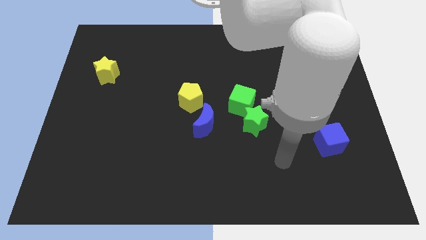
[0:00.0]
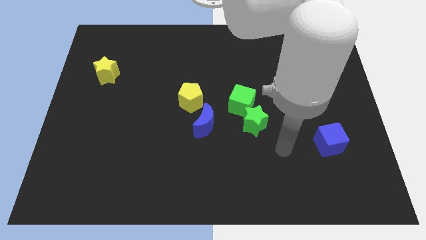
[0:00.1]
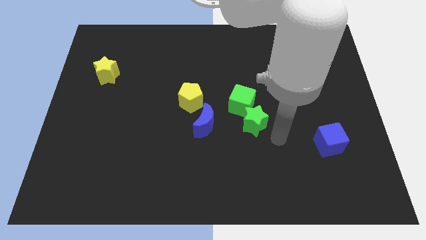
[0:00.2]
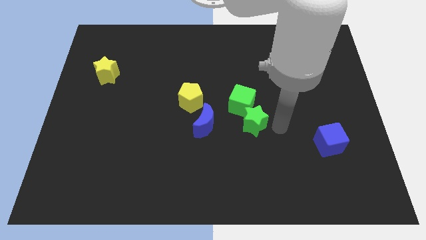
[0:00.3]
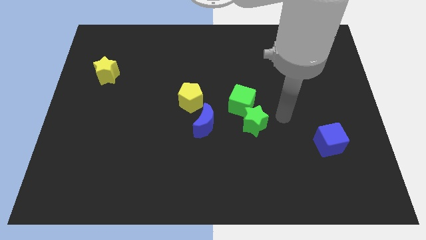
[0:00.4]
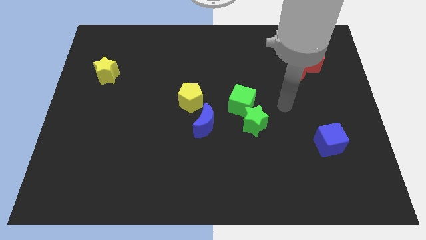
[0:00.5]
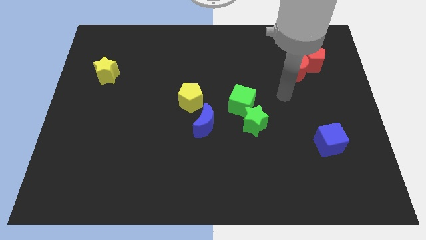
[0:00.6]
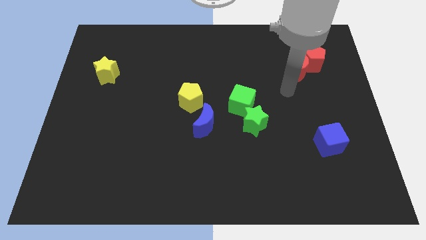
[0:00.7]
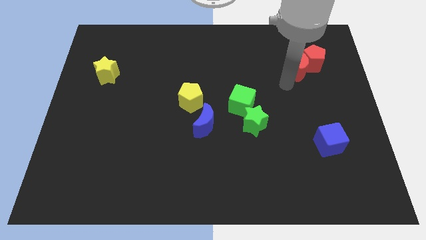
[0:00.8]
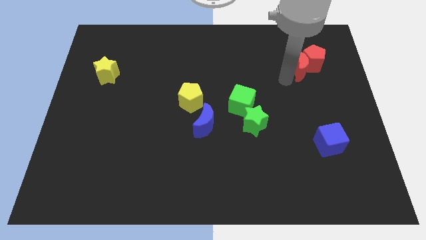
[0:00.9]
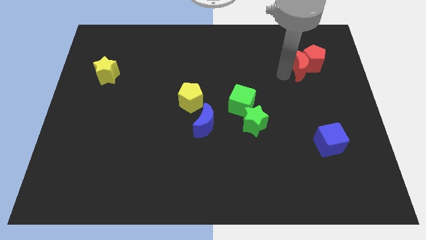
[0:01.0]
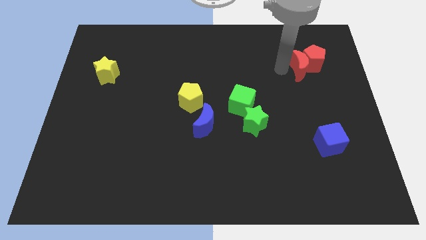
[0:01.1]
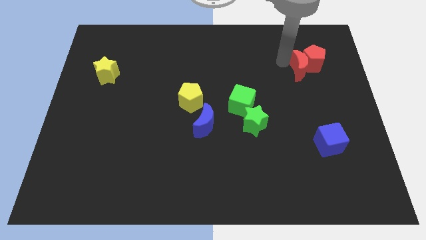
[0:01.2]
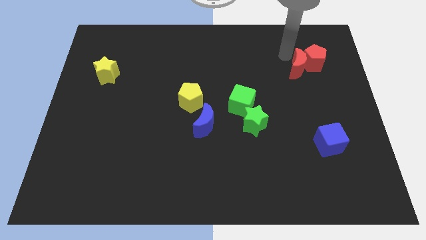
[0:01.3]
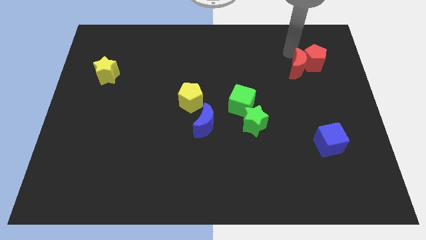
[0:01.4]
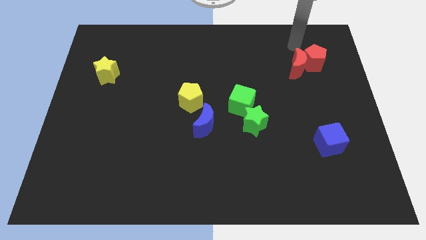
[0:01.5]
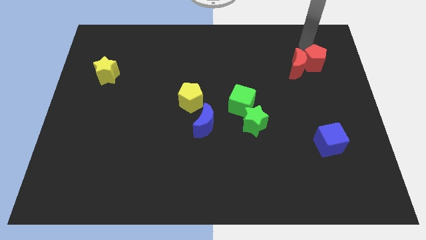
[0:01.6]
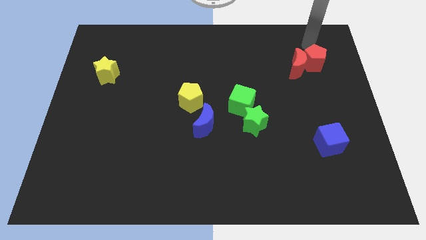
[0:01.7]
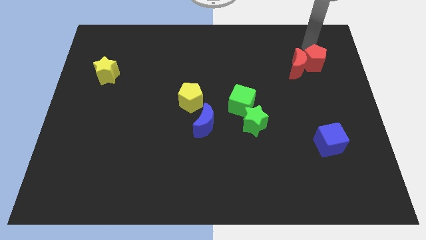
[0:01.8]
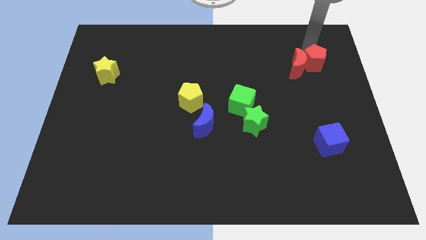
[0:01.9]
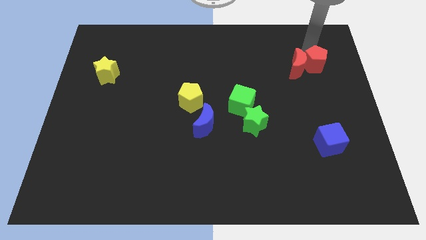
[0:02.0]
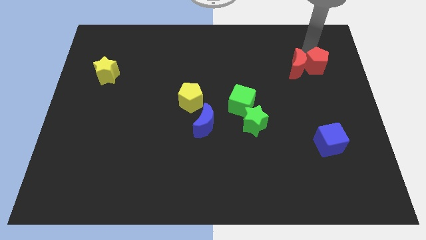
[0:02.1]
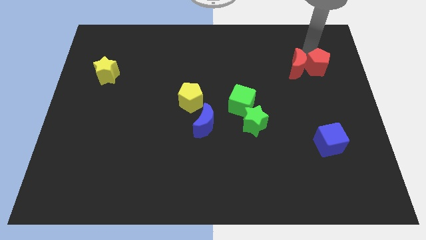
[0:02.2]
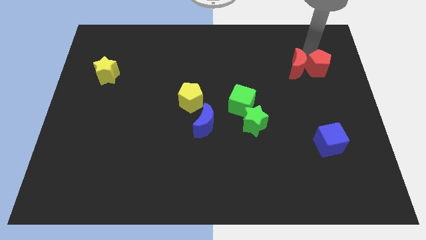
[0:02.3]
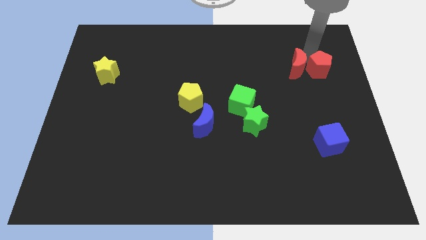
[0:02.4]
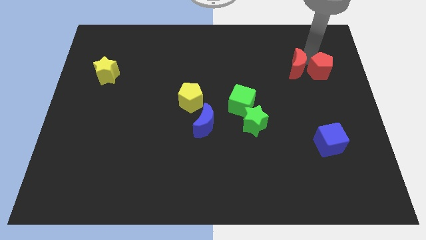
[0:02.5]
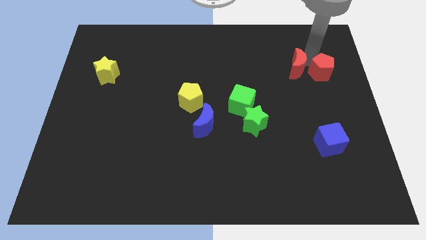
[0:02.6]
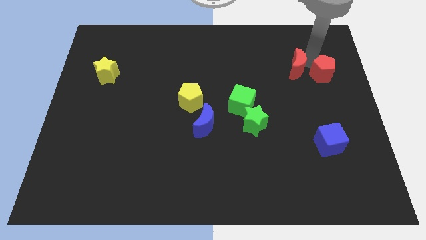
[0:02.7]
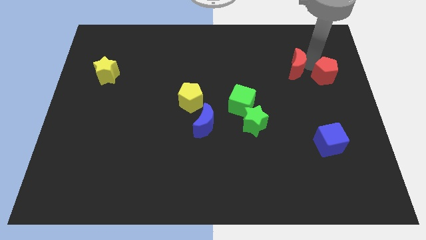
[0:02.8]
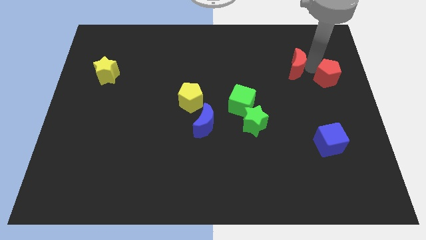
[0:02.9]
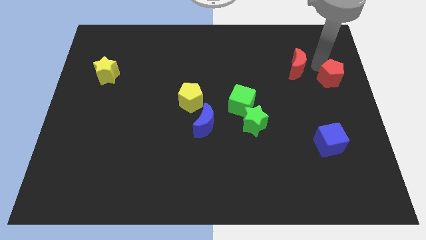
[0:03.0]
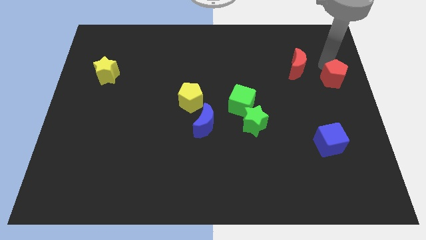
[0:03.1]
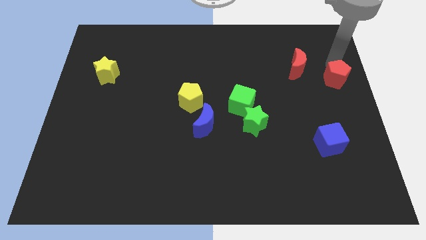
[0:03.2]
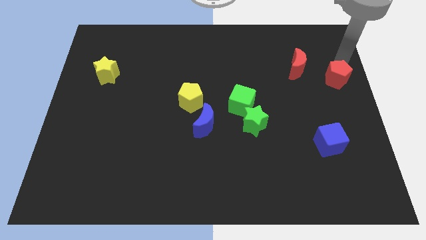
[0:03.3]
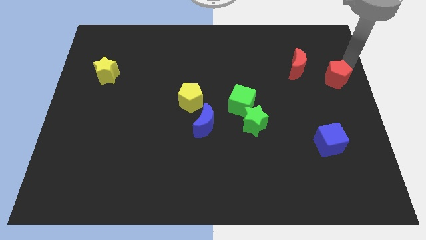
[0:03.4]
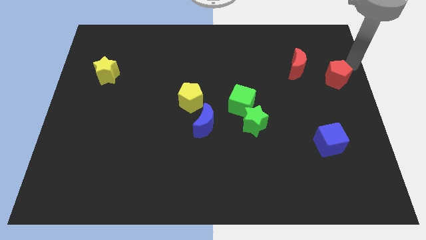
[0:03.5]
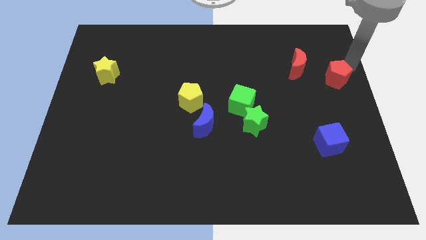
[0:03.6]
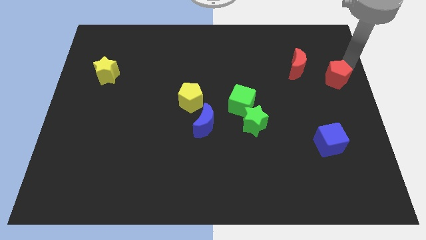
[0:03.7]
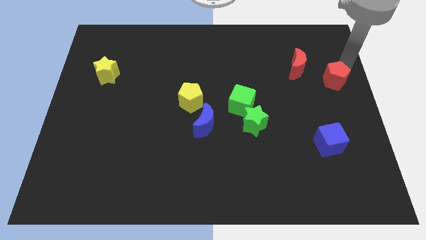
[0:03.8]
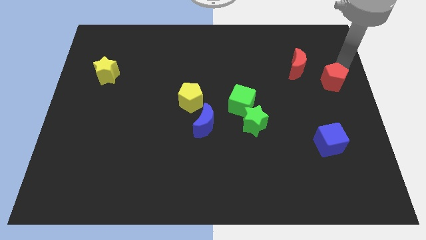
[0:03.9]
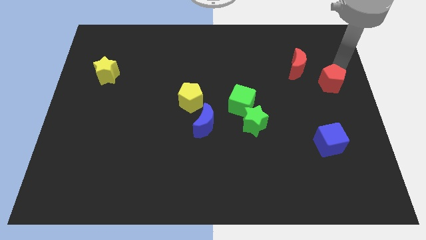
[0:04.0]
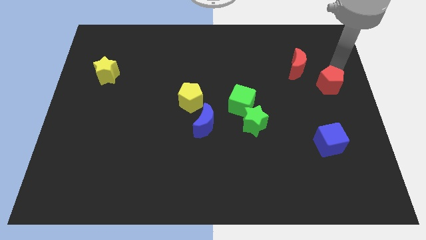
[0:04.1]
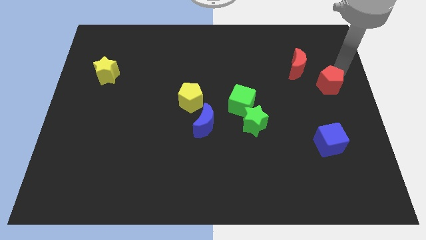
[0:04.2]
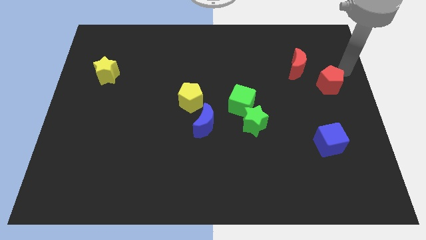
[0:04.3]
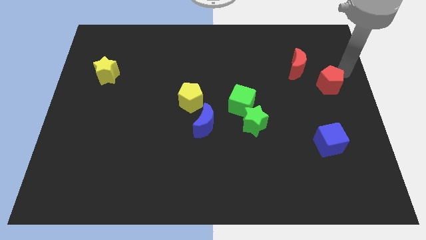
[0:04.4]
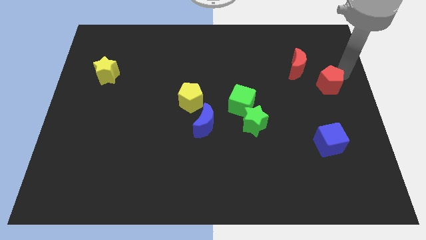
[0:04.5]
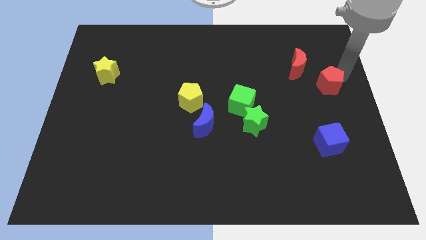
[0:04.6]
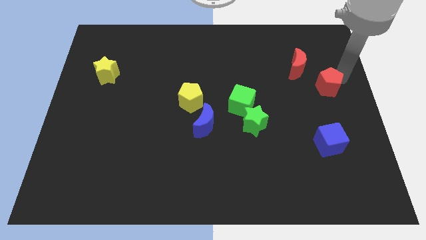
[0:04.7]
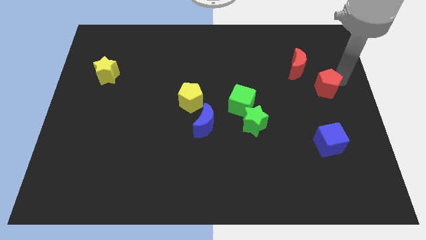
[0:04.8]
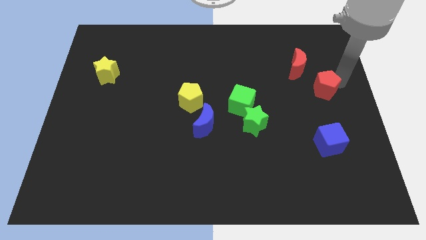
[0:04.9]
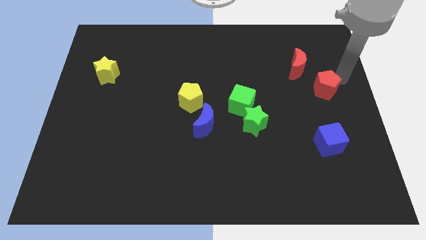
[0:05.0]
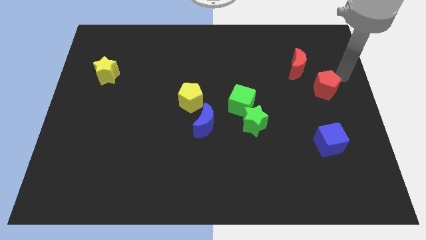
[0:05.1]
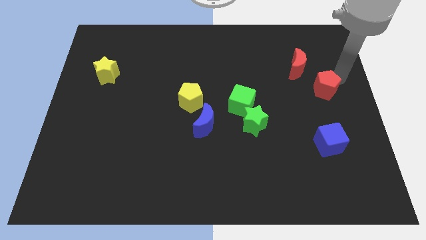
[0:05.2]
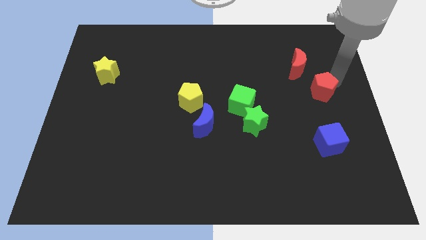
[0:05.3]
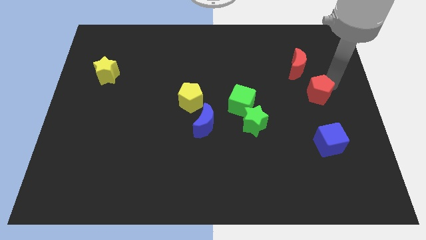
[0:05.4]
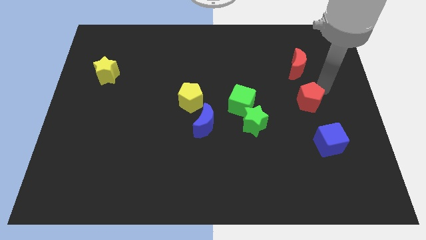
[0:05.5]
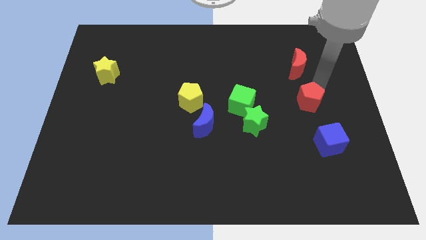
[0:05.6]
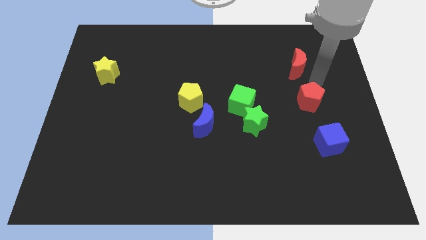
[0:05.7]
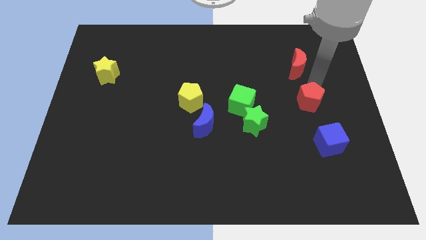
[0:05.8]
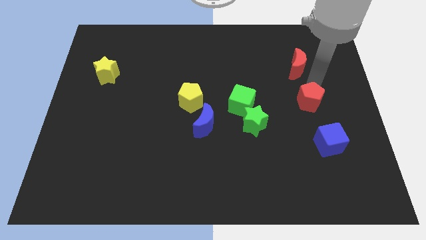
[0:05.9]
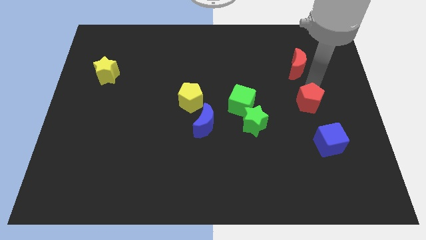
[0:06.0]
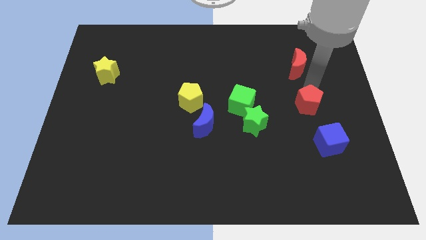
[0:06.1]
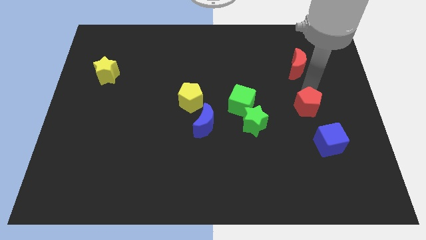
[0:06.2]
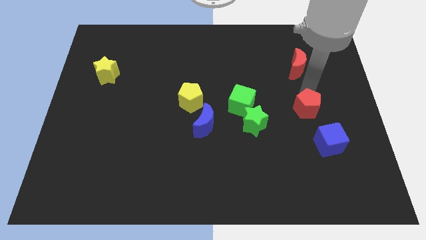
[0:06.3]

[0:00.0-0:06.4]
slide the red pentagon to the top left side of the blue cube
